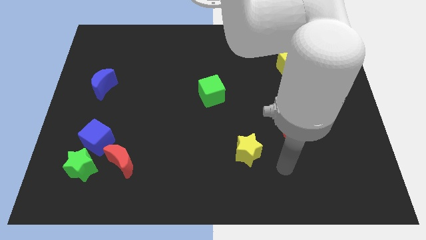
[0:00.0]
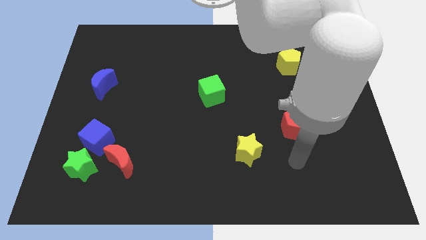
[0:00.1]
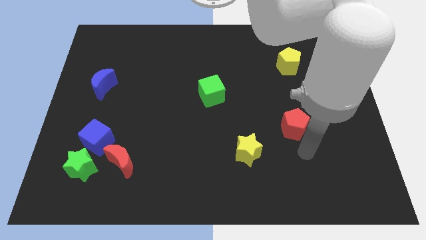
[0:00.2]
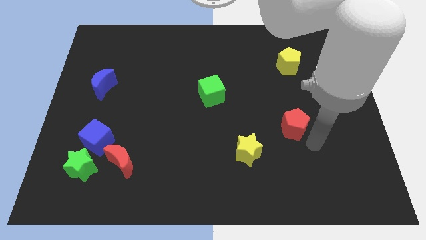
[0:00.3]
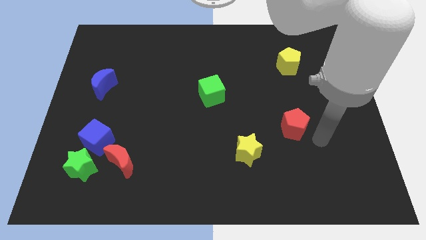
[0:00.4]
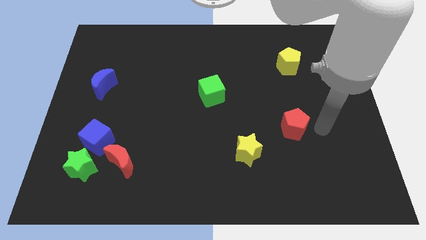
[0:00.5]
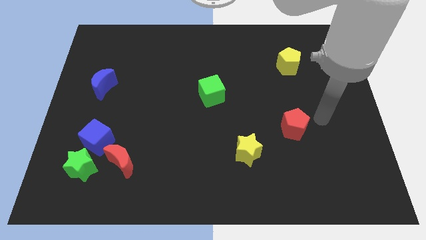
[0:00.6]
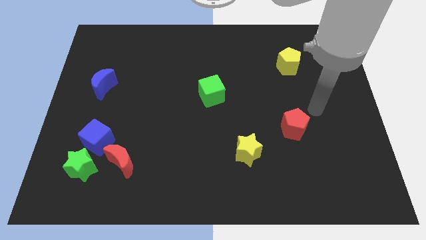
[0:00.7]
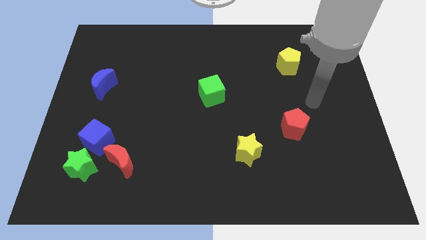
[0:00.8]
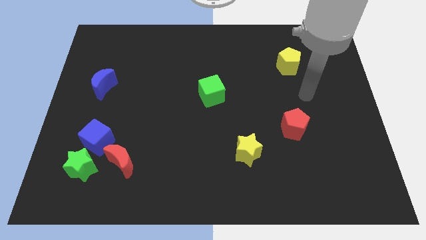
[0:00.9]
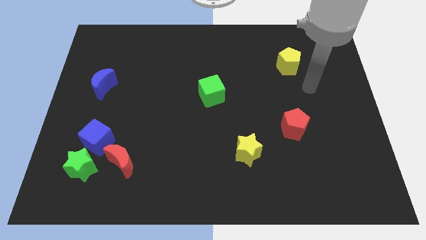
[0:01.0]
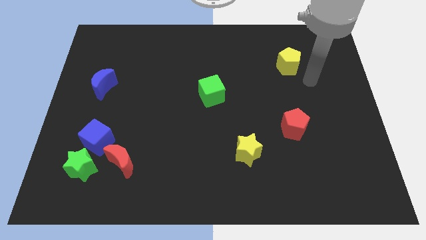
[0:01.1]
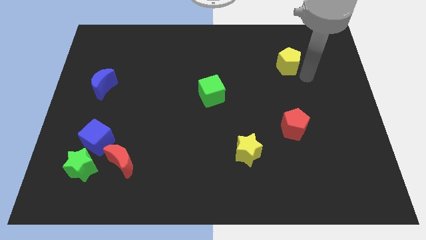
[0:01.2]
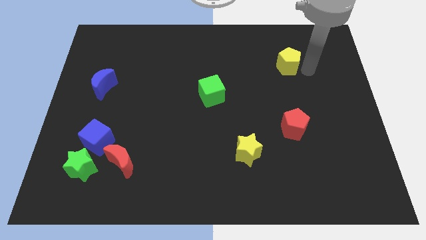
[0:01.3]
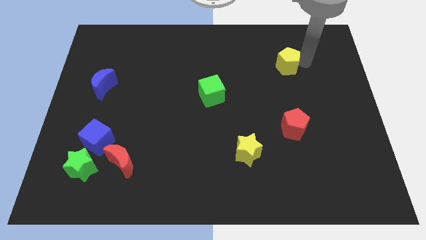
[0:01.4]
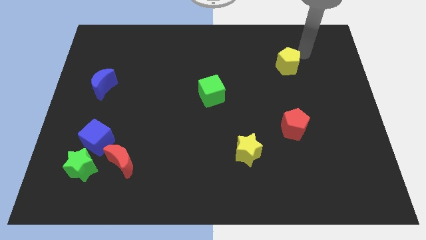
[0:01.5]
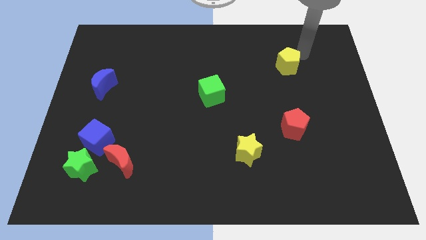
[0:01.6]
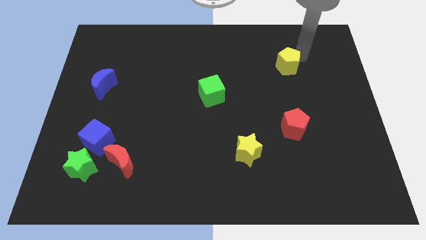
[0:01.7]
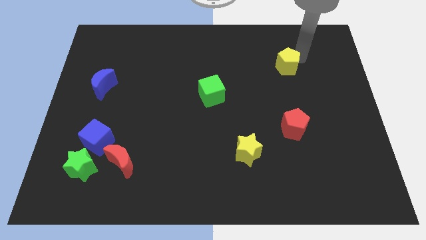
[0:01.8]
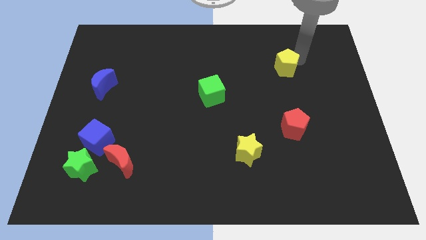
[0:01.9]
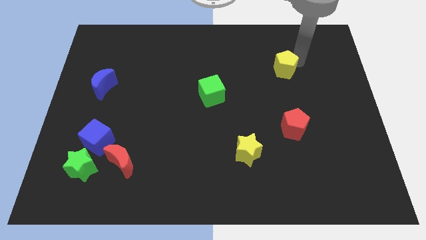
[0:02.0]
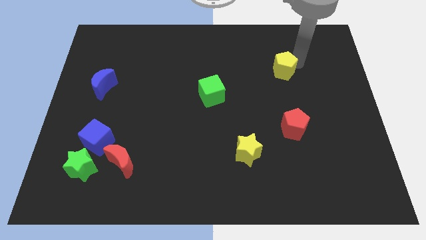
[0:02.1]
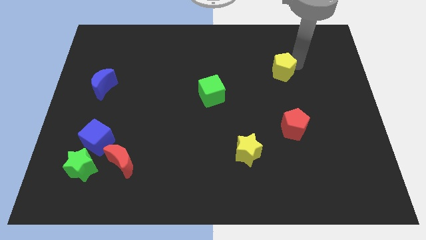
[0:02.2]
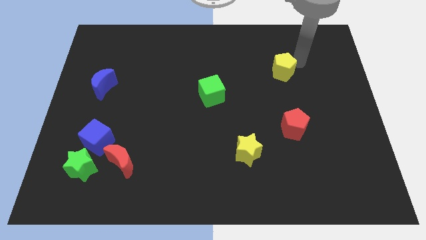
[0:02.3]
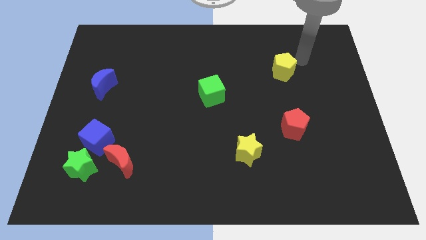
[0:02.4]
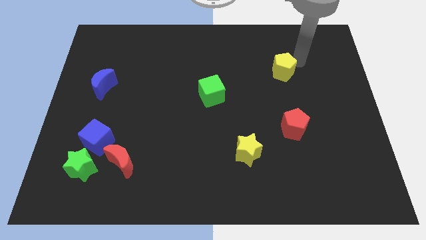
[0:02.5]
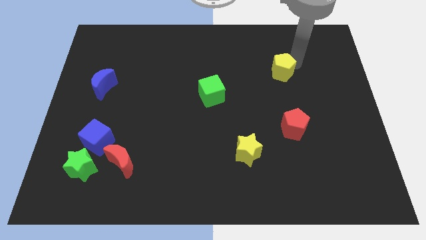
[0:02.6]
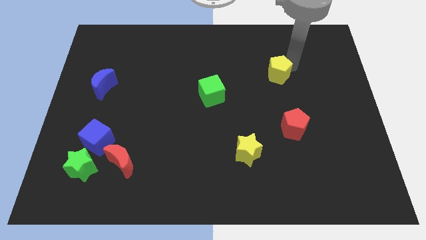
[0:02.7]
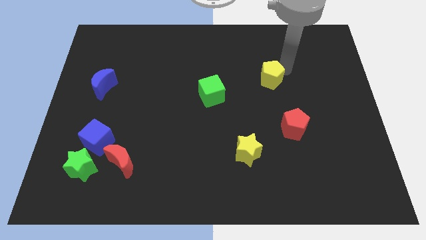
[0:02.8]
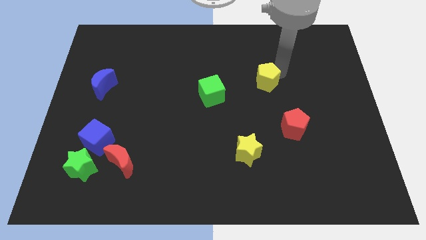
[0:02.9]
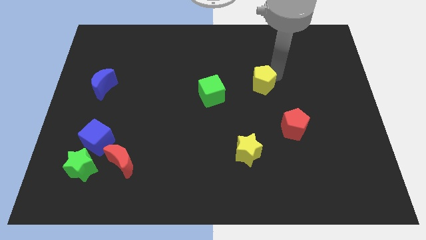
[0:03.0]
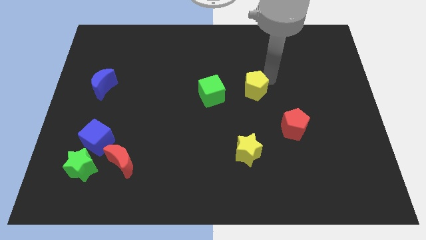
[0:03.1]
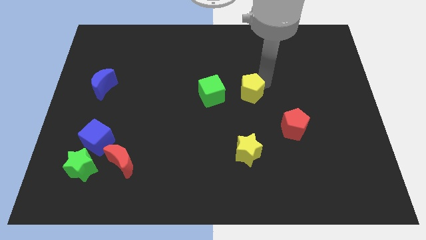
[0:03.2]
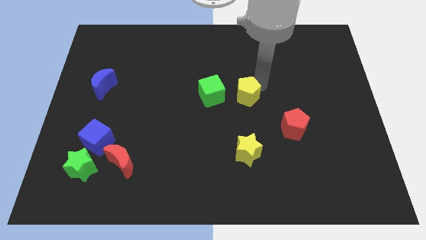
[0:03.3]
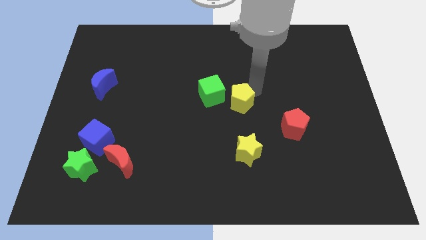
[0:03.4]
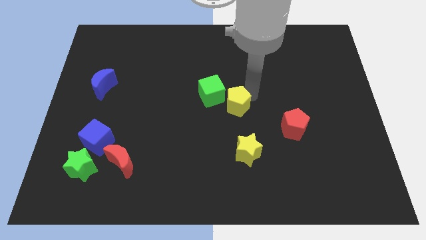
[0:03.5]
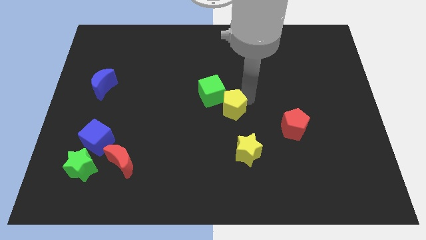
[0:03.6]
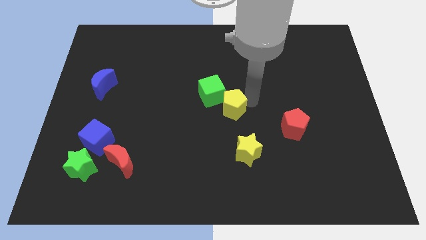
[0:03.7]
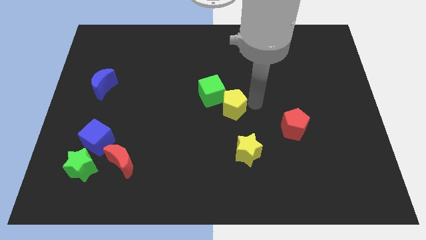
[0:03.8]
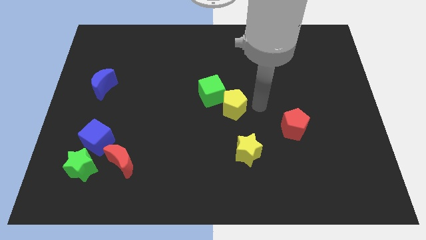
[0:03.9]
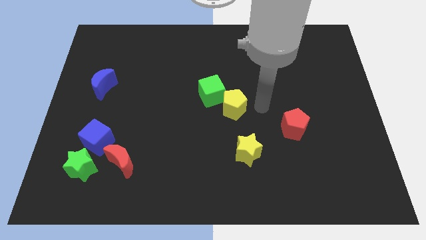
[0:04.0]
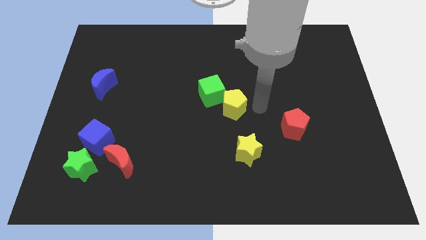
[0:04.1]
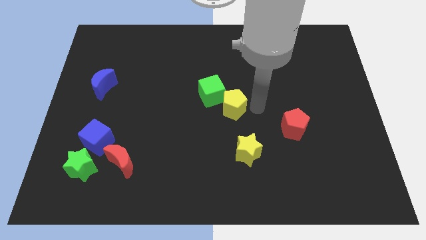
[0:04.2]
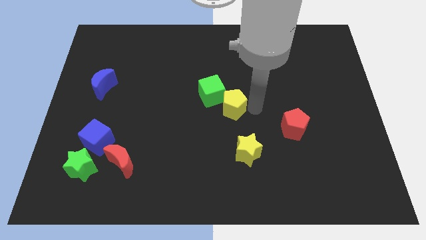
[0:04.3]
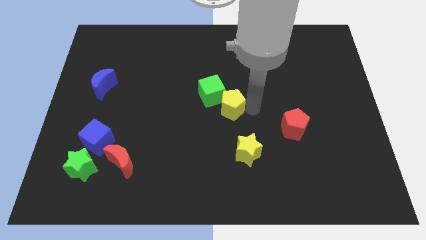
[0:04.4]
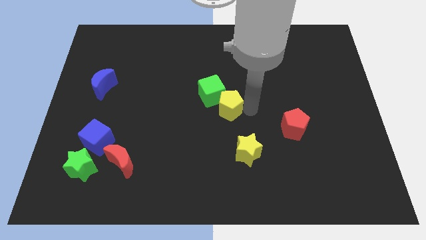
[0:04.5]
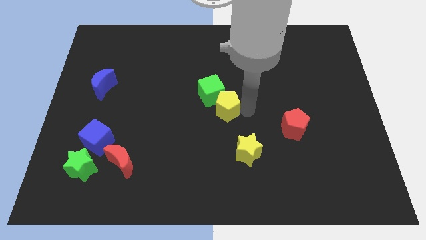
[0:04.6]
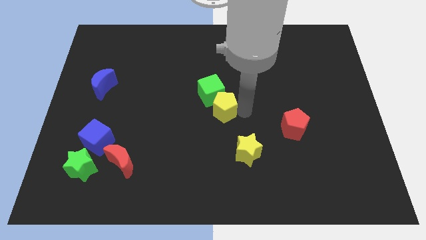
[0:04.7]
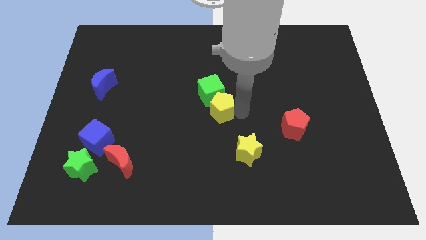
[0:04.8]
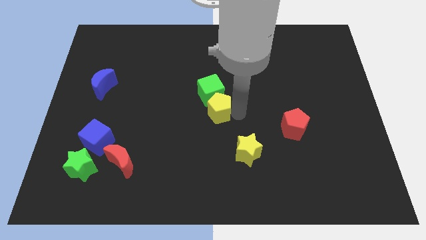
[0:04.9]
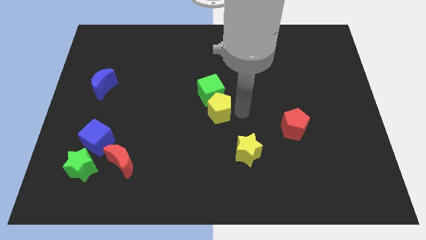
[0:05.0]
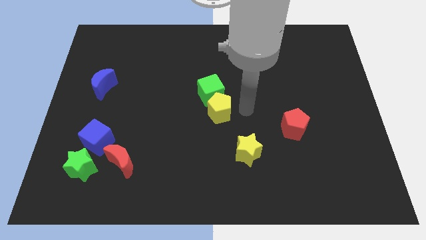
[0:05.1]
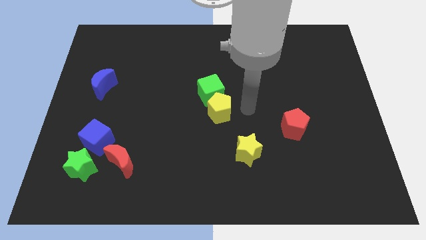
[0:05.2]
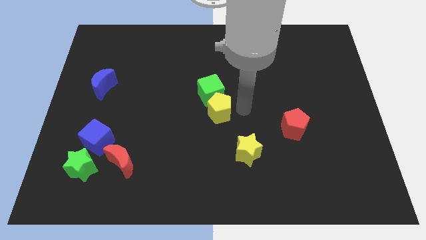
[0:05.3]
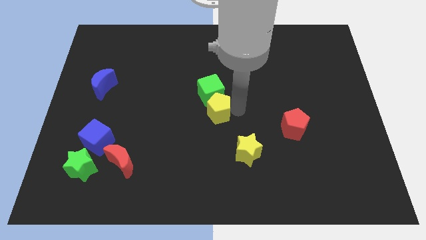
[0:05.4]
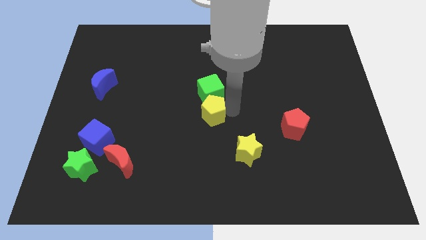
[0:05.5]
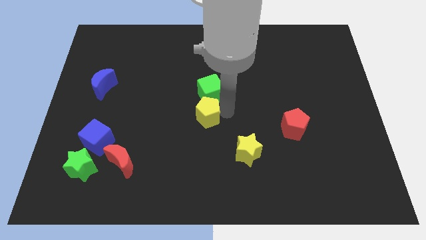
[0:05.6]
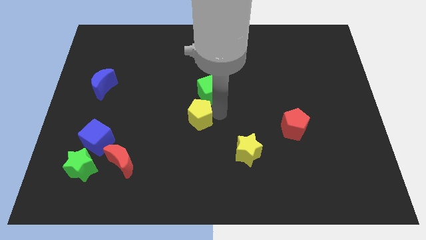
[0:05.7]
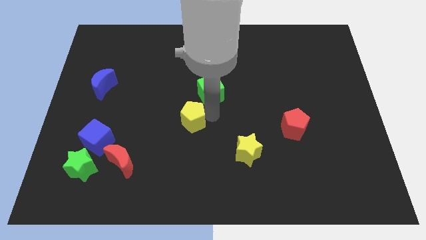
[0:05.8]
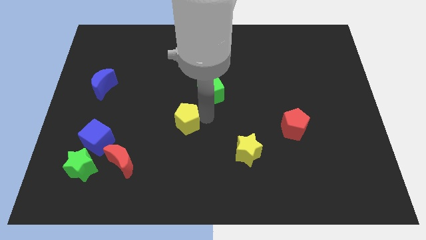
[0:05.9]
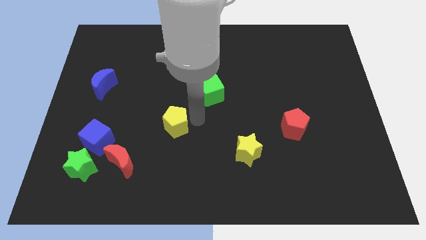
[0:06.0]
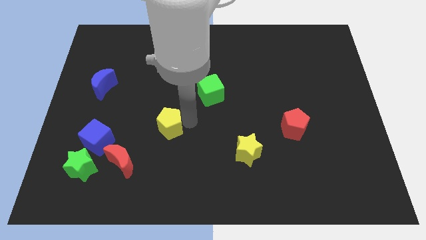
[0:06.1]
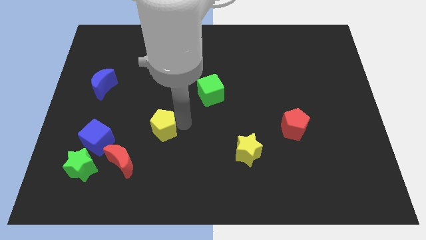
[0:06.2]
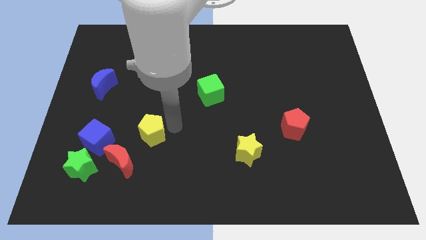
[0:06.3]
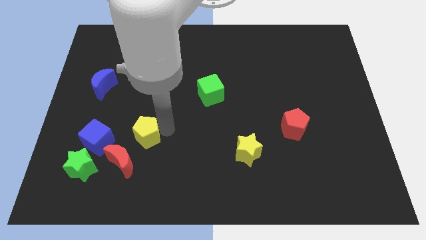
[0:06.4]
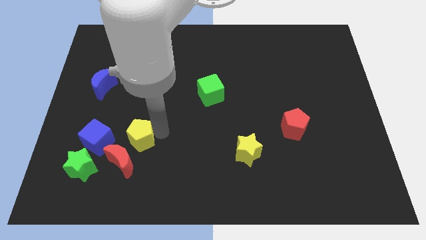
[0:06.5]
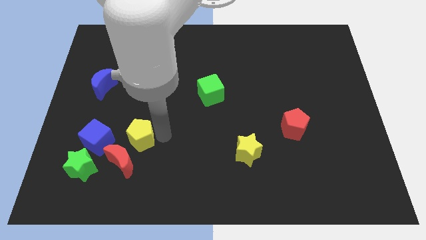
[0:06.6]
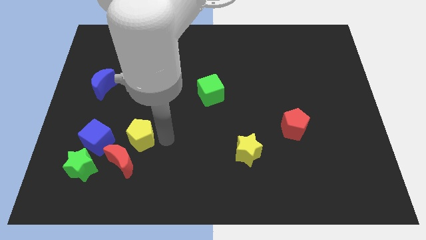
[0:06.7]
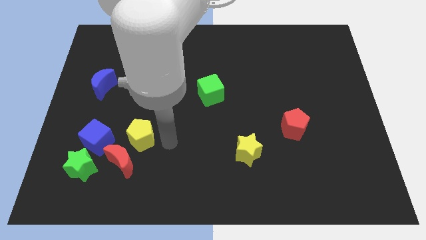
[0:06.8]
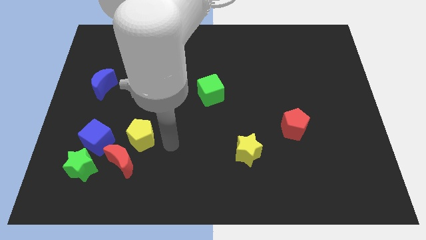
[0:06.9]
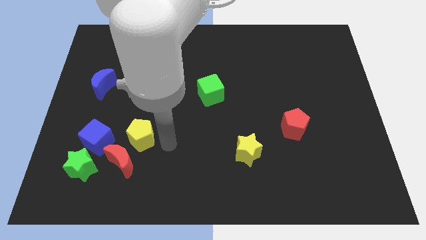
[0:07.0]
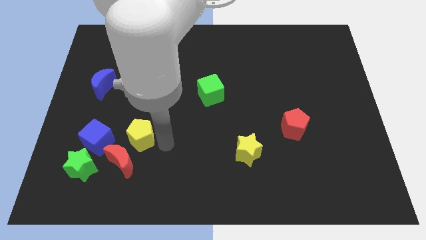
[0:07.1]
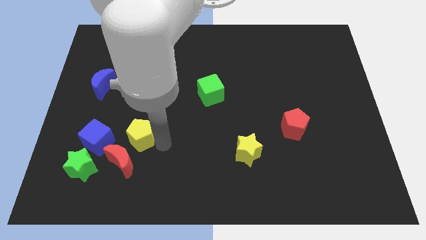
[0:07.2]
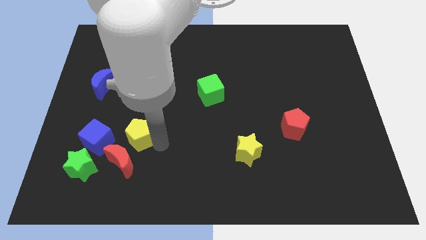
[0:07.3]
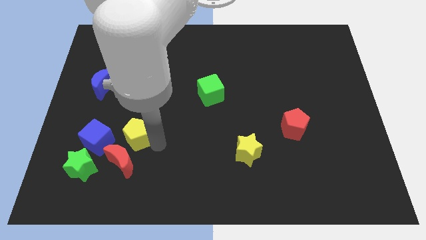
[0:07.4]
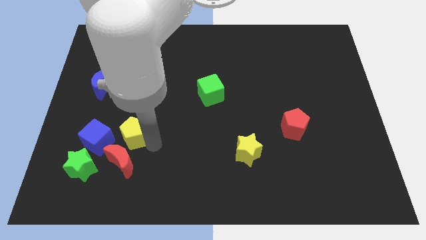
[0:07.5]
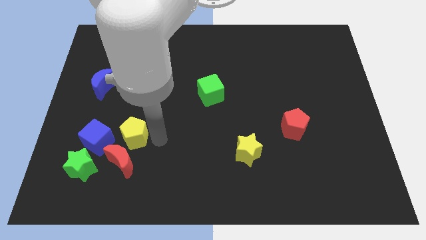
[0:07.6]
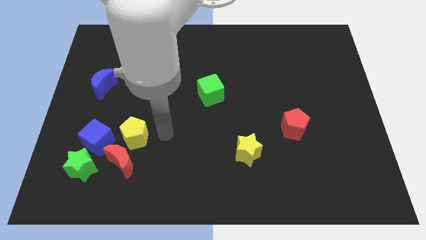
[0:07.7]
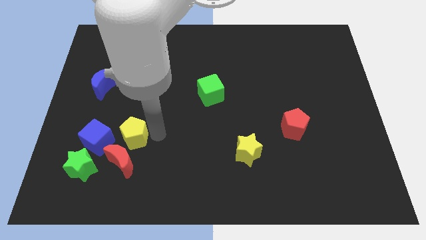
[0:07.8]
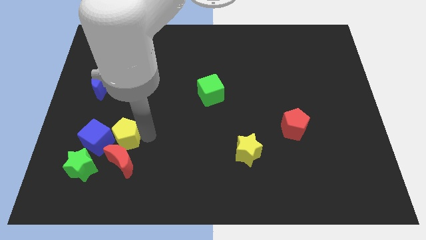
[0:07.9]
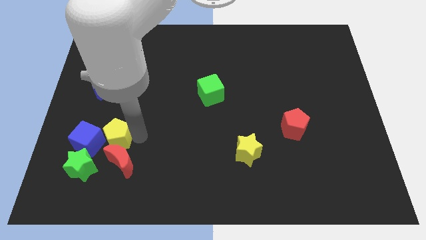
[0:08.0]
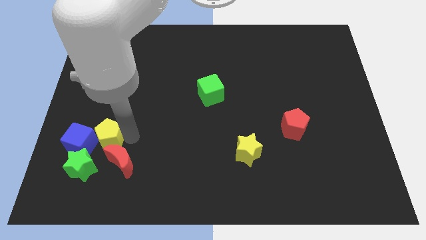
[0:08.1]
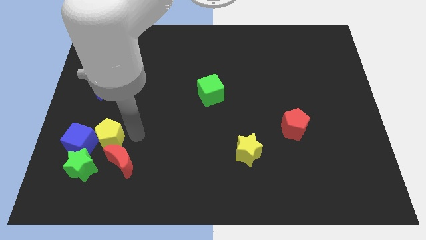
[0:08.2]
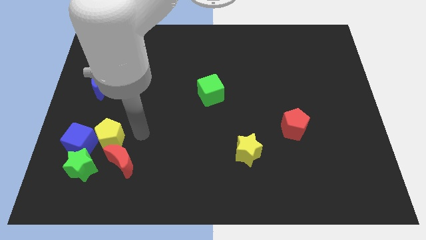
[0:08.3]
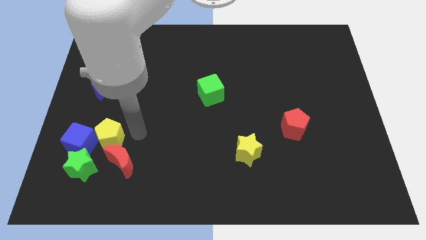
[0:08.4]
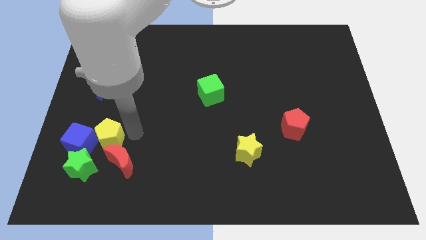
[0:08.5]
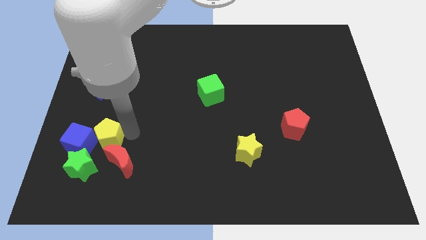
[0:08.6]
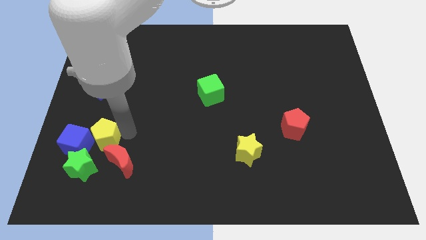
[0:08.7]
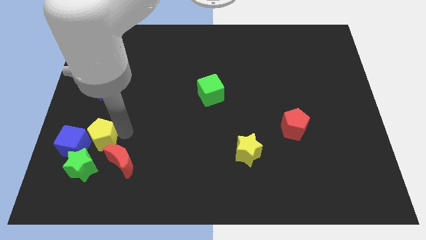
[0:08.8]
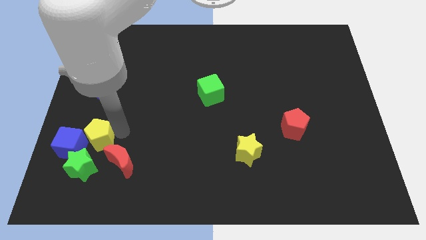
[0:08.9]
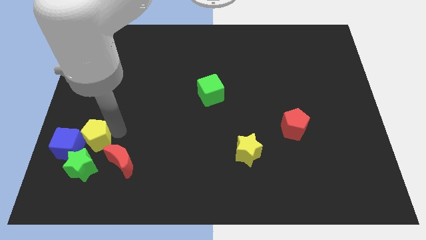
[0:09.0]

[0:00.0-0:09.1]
push the yellow pentagon towards the blue cube
